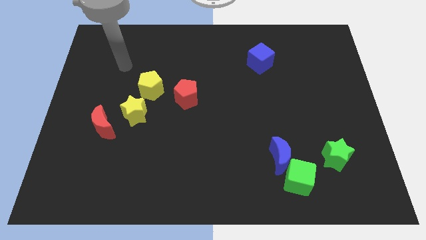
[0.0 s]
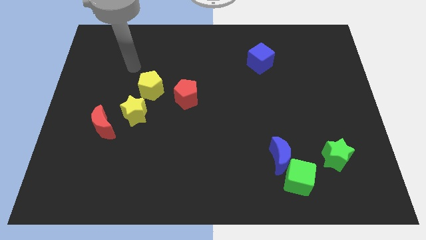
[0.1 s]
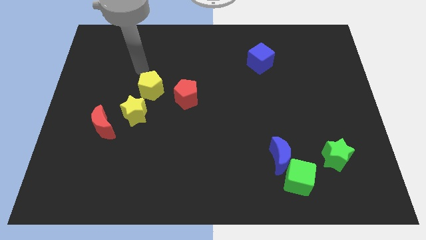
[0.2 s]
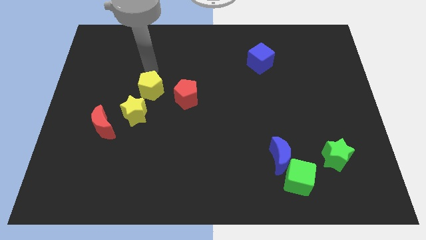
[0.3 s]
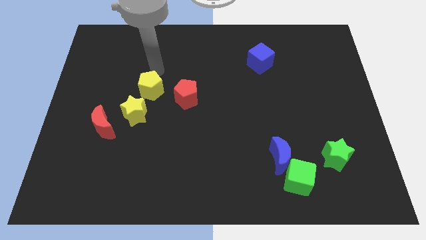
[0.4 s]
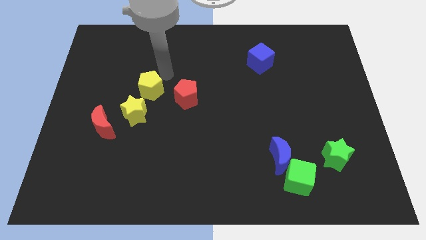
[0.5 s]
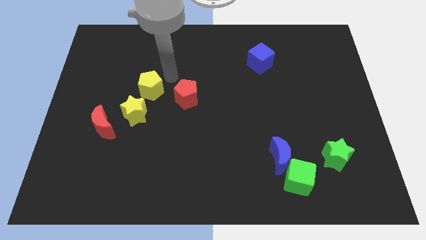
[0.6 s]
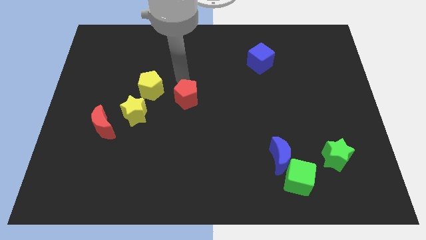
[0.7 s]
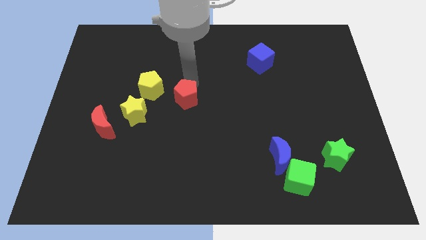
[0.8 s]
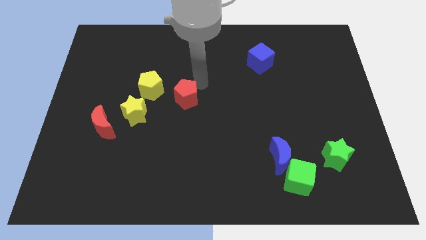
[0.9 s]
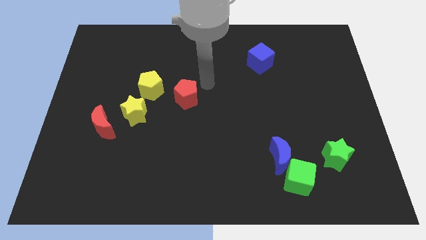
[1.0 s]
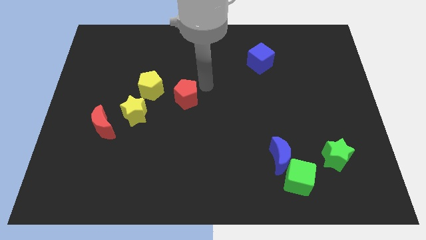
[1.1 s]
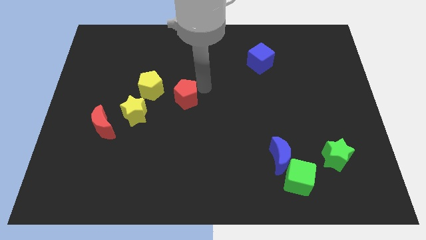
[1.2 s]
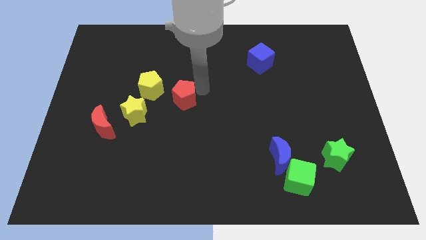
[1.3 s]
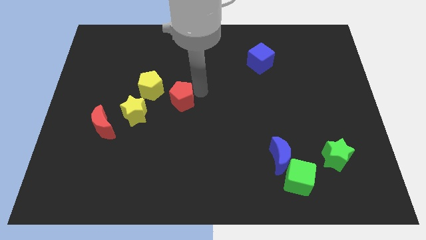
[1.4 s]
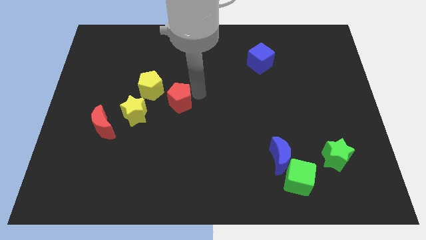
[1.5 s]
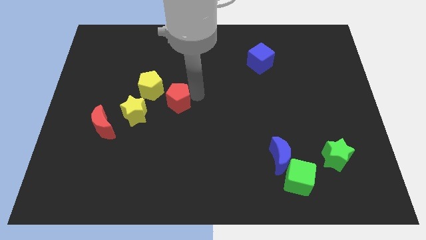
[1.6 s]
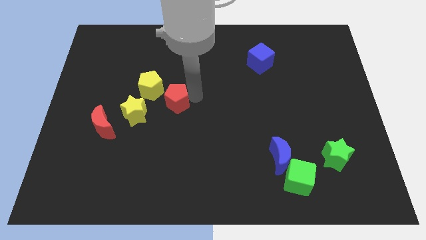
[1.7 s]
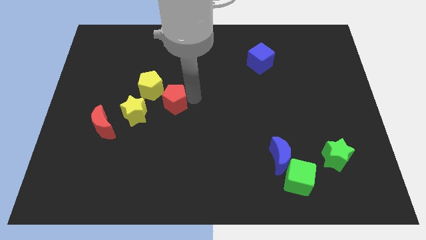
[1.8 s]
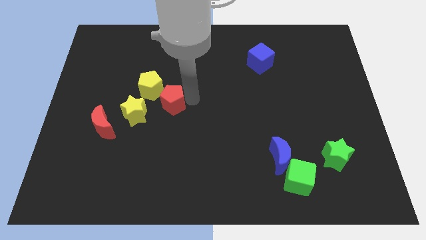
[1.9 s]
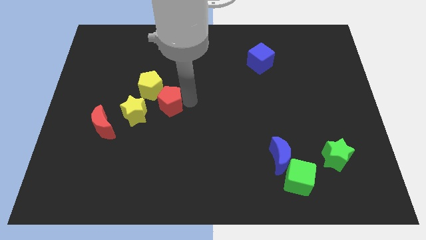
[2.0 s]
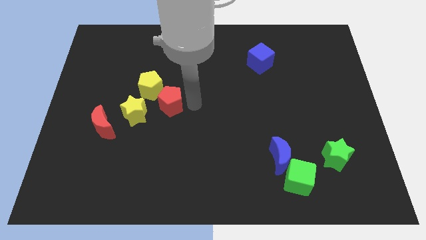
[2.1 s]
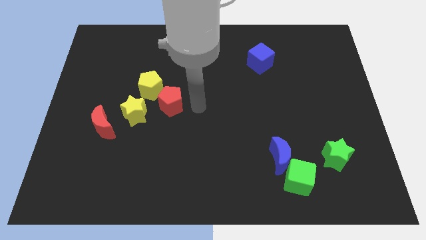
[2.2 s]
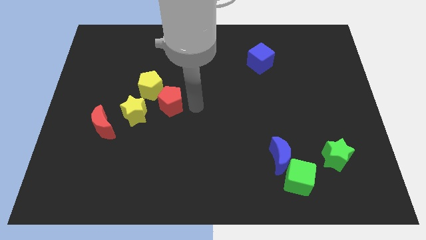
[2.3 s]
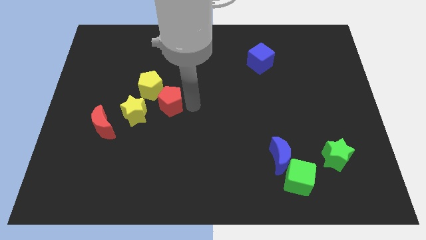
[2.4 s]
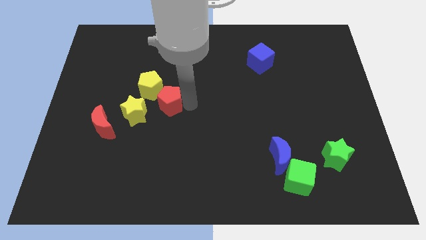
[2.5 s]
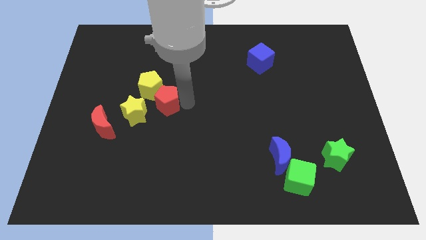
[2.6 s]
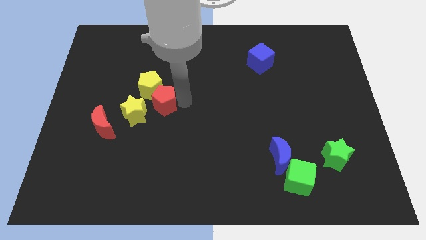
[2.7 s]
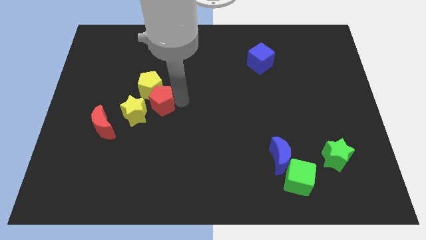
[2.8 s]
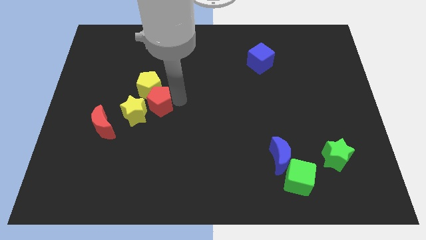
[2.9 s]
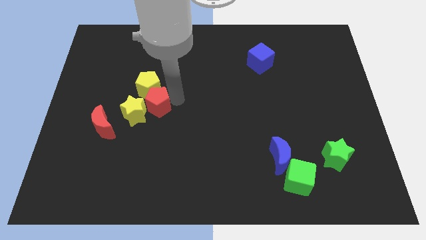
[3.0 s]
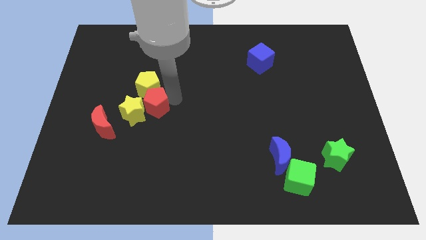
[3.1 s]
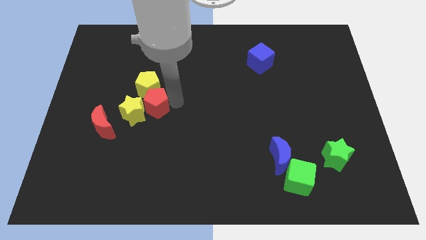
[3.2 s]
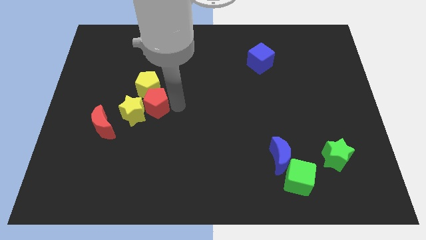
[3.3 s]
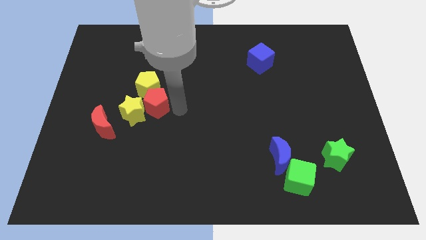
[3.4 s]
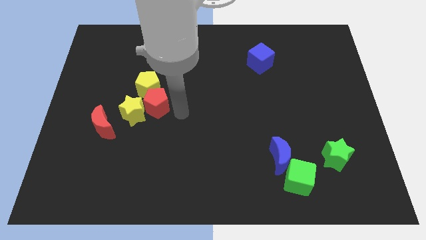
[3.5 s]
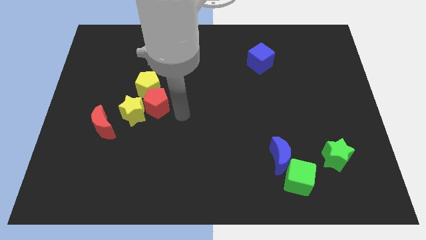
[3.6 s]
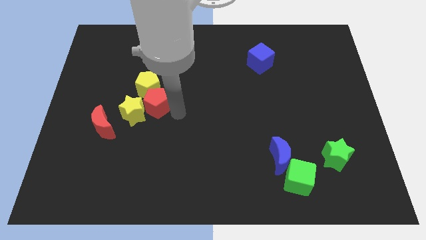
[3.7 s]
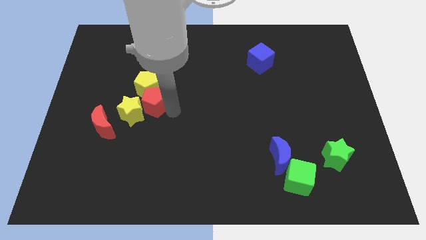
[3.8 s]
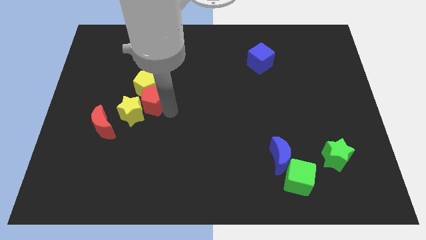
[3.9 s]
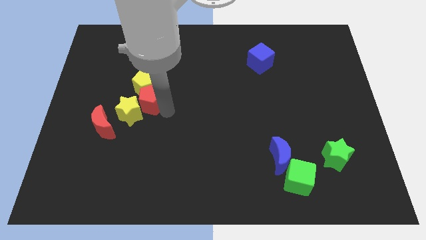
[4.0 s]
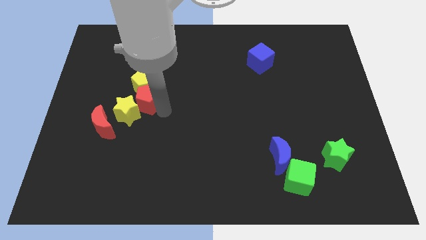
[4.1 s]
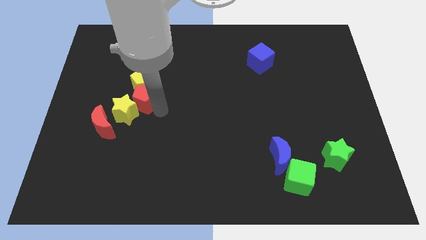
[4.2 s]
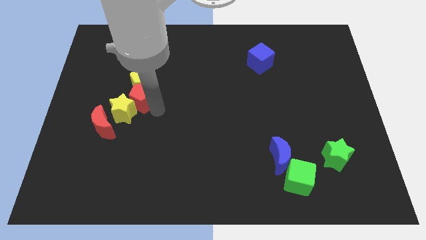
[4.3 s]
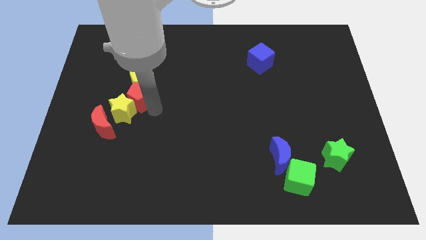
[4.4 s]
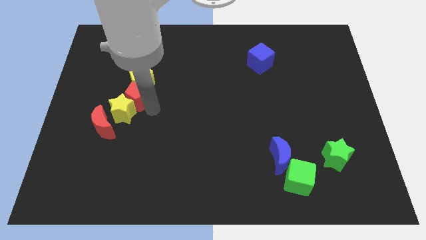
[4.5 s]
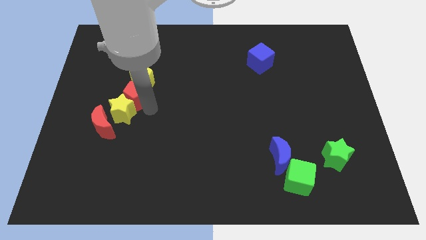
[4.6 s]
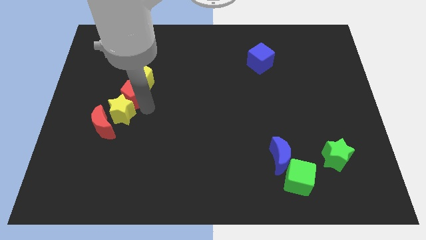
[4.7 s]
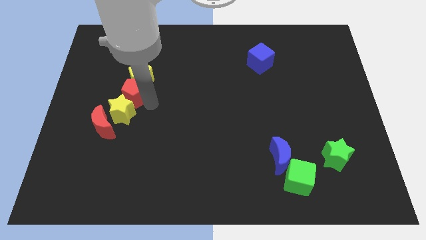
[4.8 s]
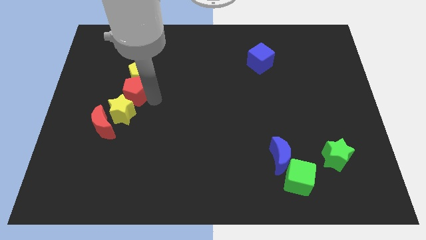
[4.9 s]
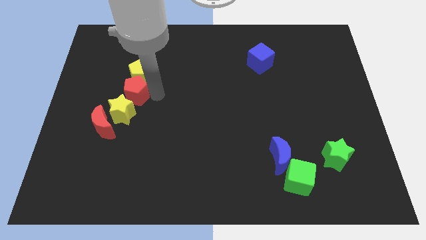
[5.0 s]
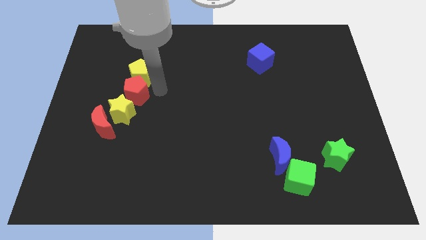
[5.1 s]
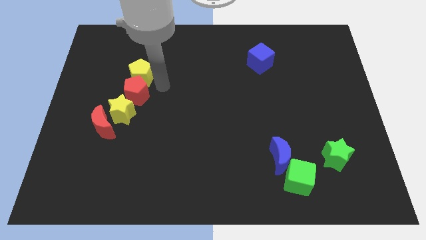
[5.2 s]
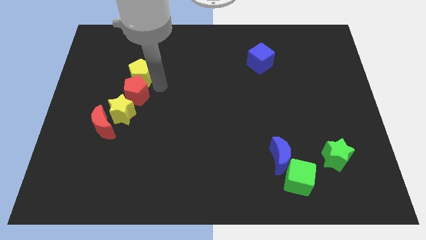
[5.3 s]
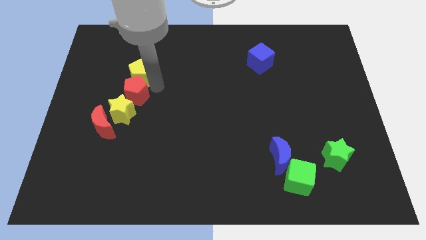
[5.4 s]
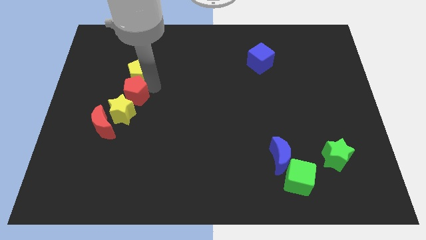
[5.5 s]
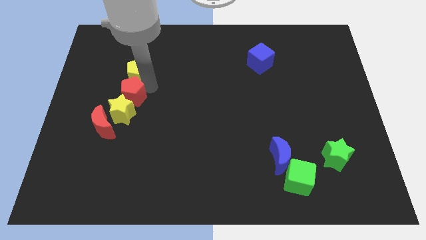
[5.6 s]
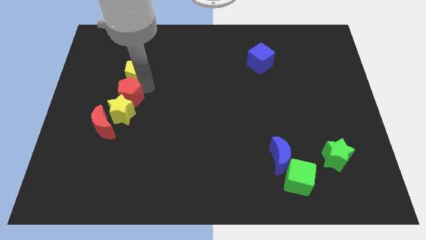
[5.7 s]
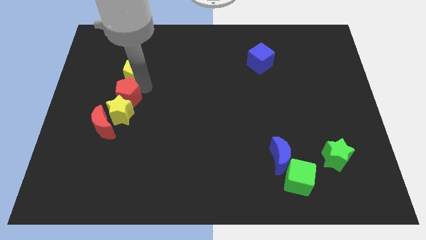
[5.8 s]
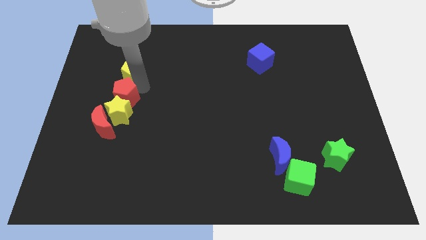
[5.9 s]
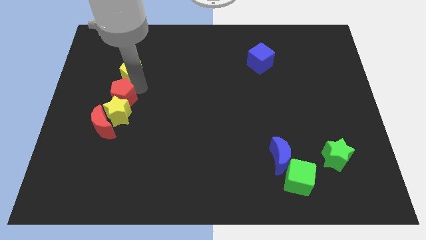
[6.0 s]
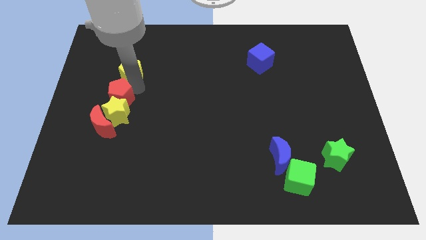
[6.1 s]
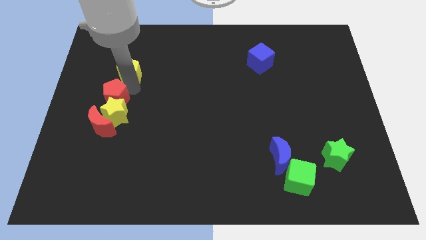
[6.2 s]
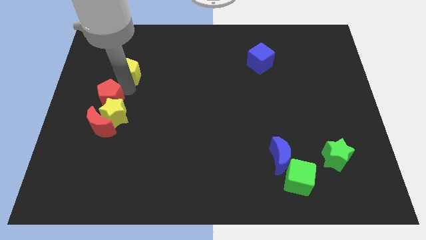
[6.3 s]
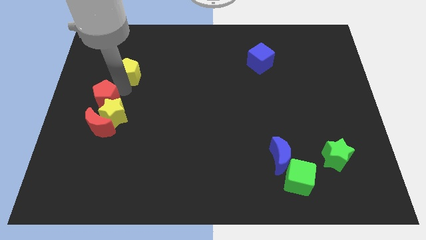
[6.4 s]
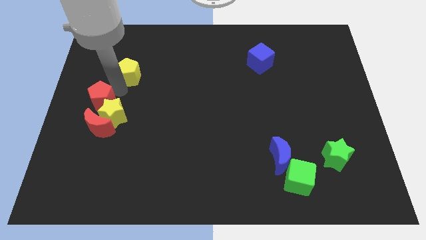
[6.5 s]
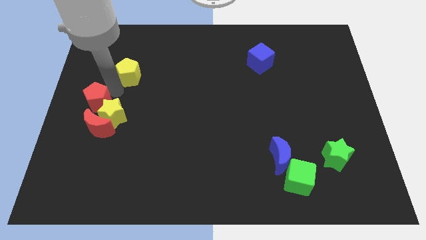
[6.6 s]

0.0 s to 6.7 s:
push the red pentagon to the left side of the yellow star
